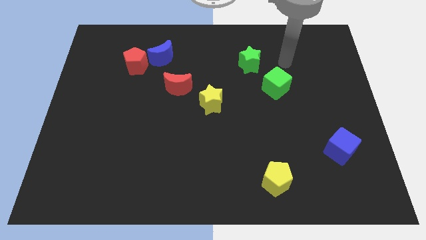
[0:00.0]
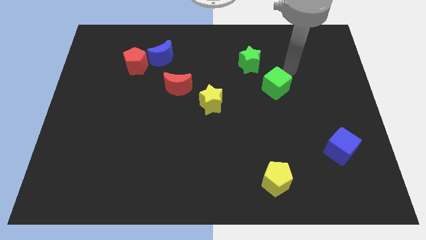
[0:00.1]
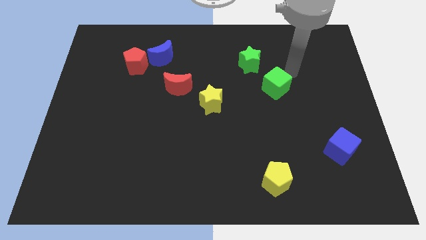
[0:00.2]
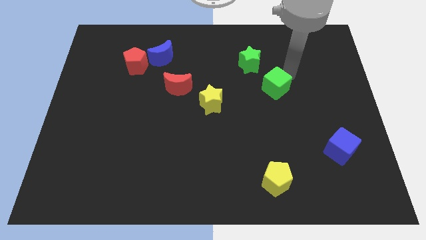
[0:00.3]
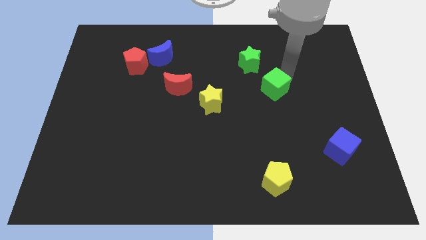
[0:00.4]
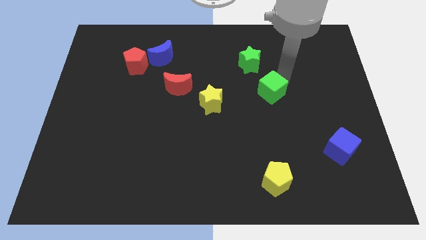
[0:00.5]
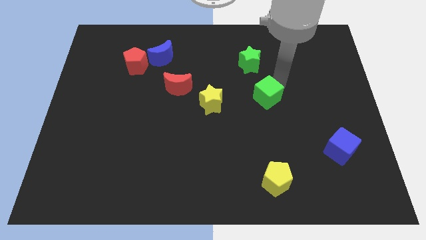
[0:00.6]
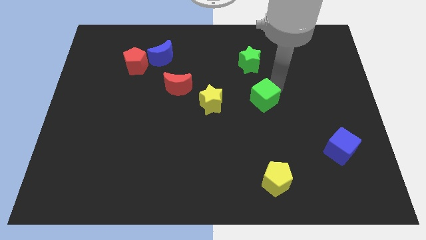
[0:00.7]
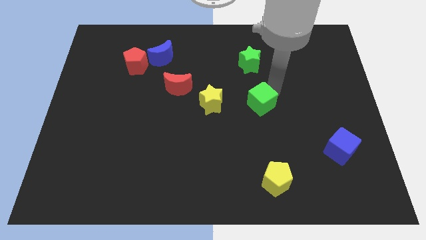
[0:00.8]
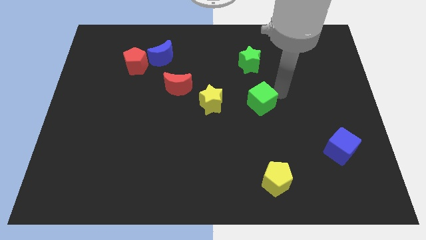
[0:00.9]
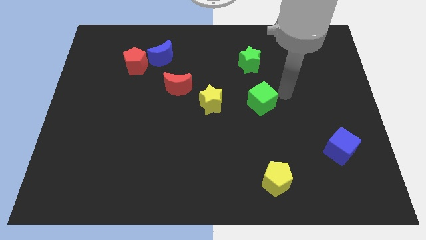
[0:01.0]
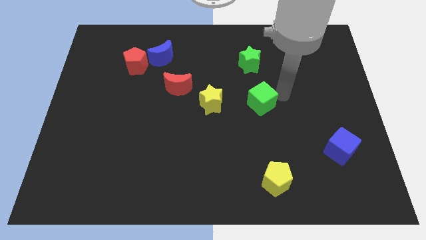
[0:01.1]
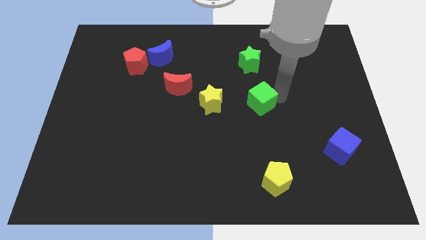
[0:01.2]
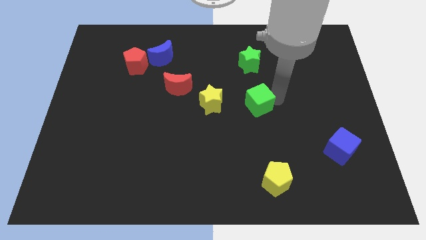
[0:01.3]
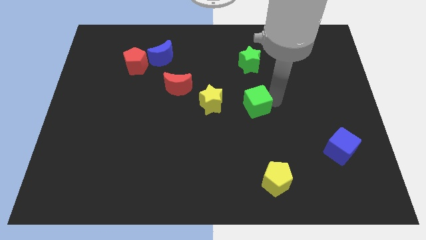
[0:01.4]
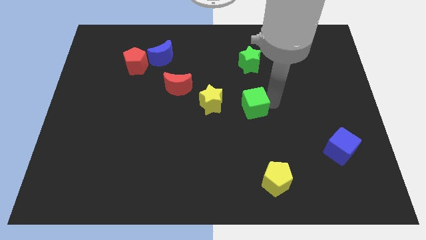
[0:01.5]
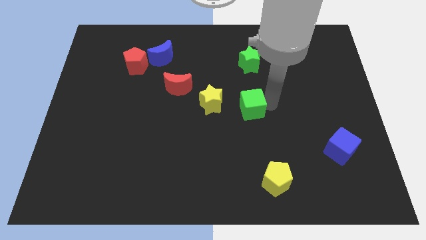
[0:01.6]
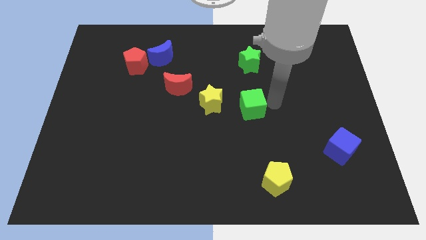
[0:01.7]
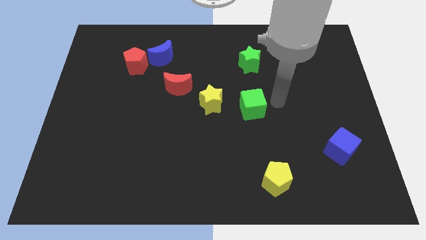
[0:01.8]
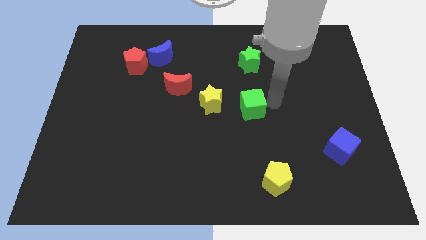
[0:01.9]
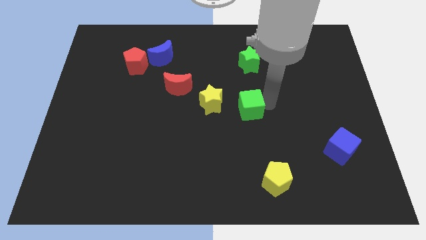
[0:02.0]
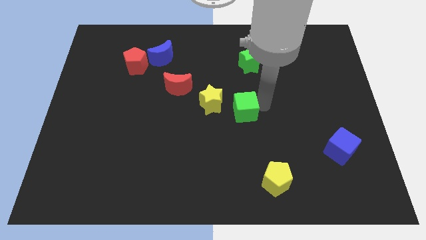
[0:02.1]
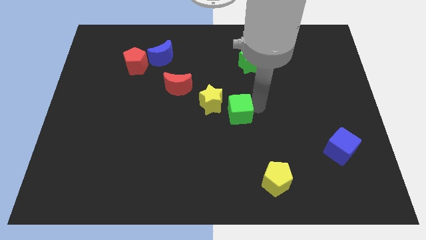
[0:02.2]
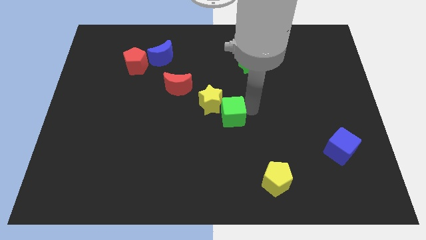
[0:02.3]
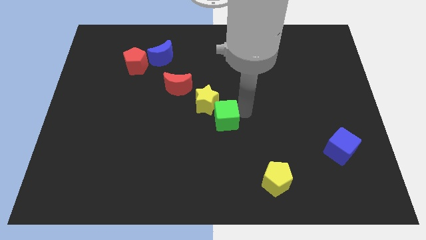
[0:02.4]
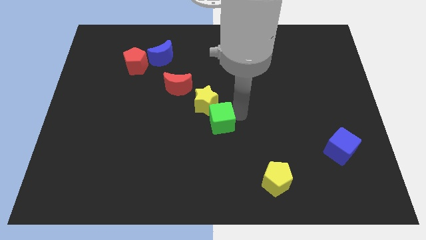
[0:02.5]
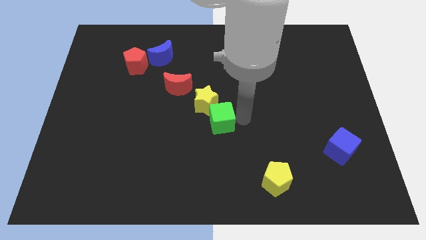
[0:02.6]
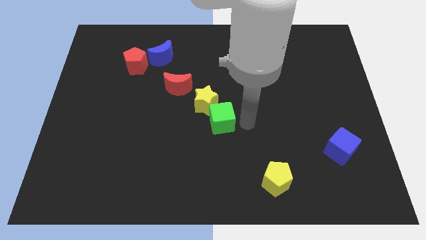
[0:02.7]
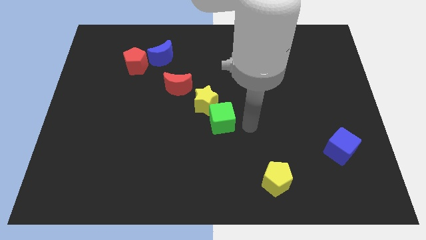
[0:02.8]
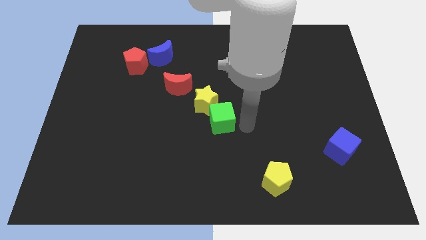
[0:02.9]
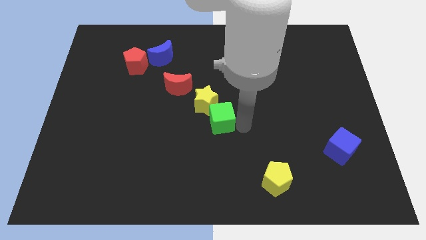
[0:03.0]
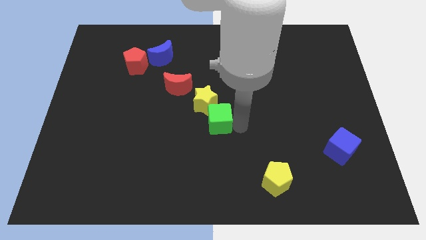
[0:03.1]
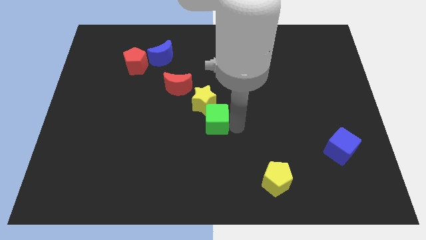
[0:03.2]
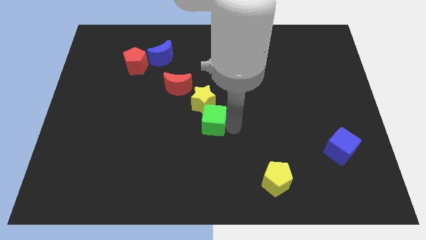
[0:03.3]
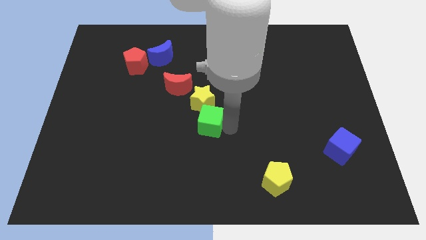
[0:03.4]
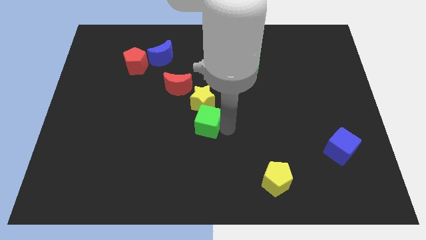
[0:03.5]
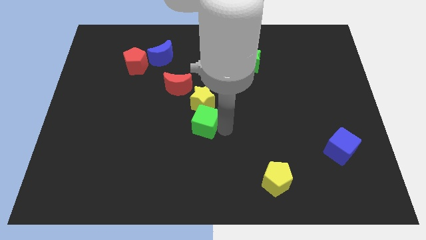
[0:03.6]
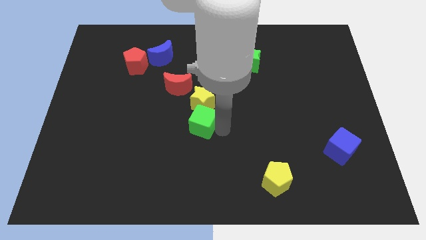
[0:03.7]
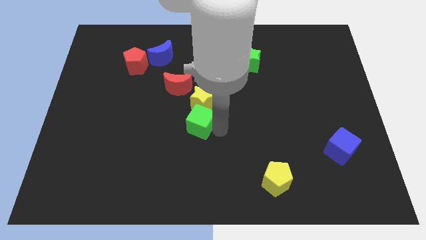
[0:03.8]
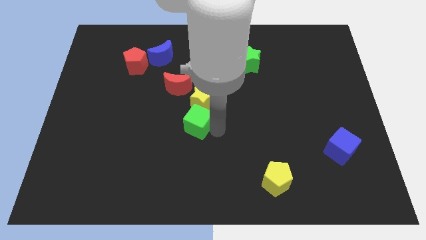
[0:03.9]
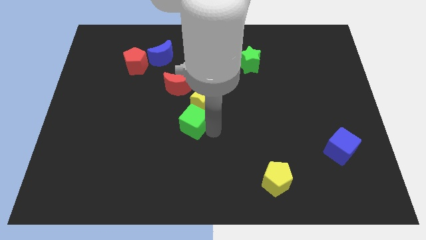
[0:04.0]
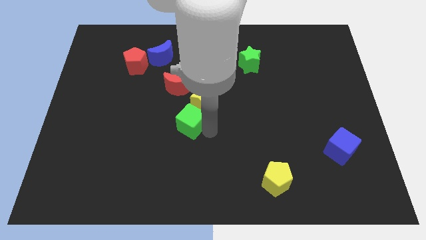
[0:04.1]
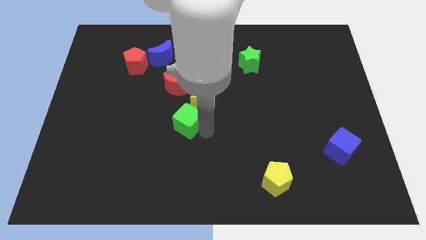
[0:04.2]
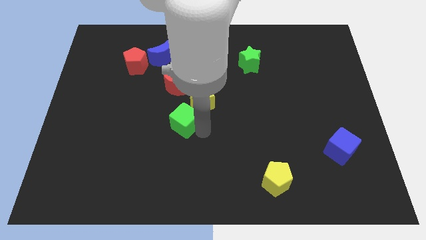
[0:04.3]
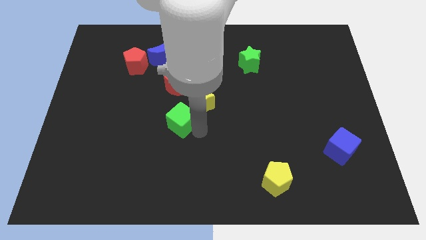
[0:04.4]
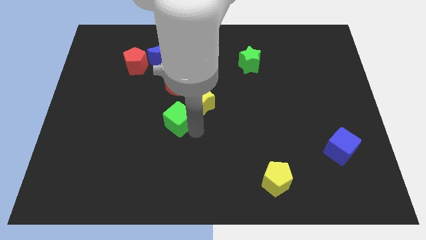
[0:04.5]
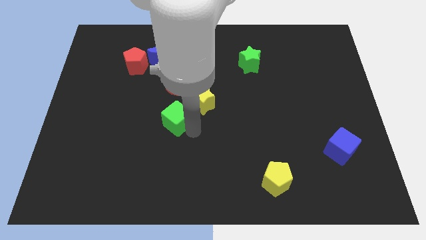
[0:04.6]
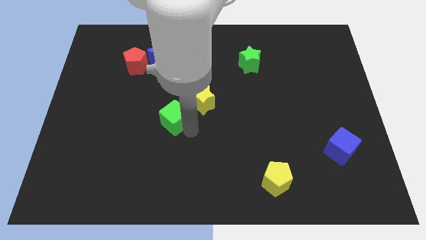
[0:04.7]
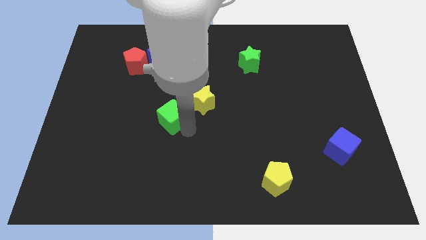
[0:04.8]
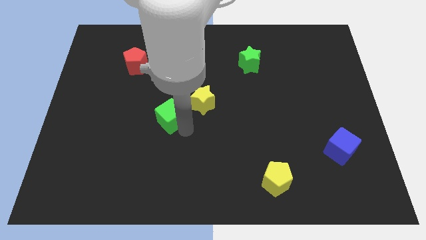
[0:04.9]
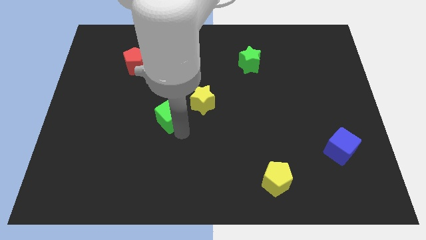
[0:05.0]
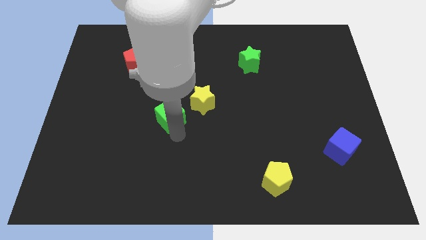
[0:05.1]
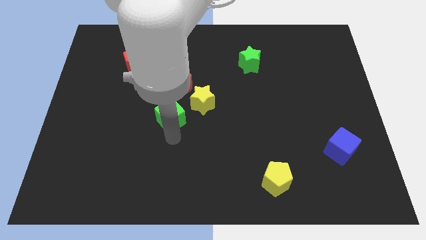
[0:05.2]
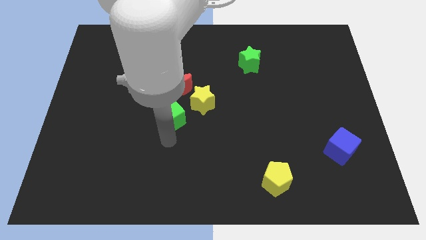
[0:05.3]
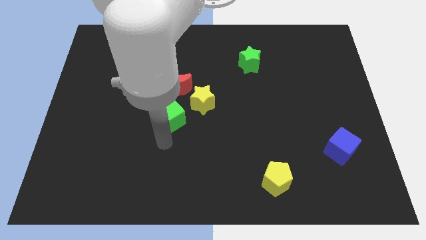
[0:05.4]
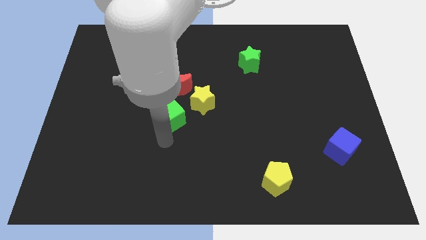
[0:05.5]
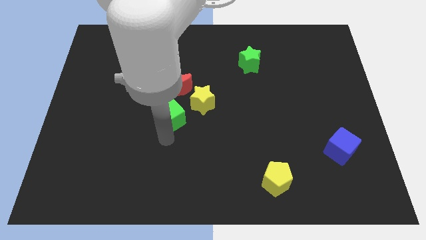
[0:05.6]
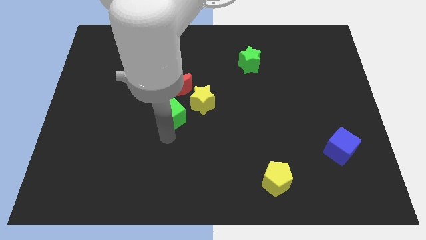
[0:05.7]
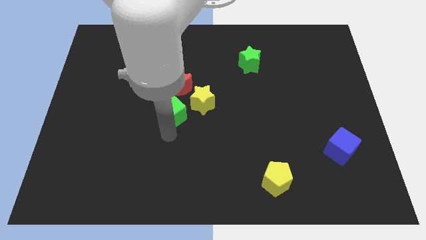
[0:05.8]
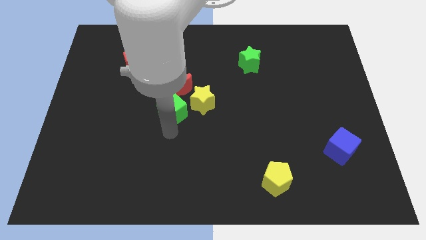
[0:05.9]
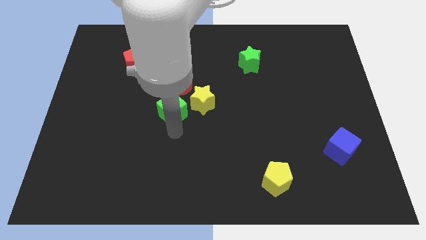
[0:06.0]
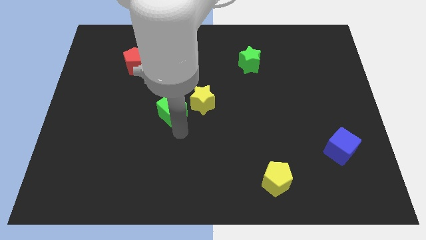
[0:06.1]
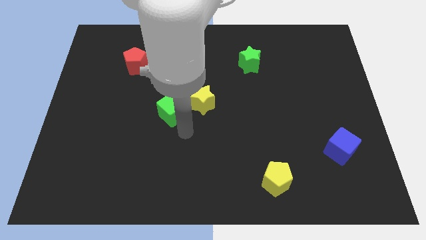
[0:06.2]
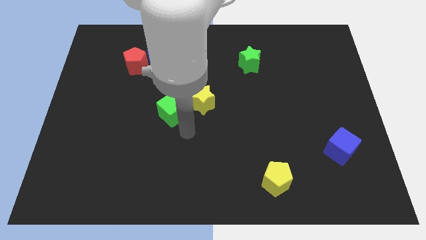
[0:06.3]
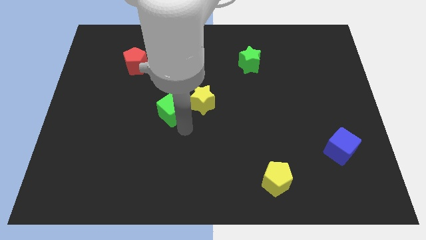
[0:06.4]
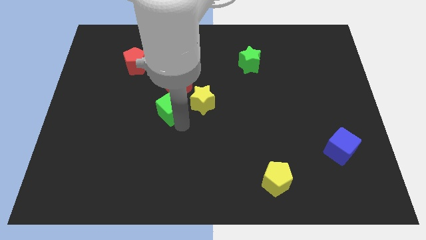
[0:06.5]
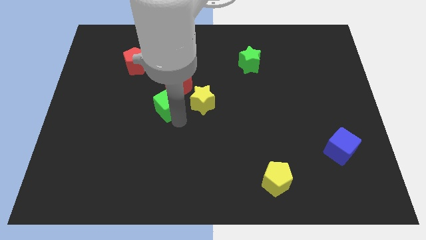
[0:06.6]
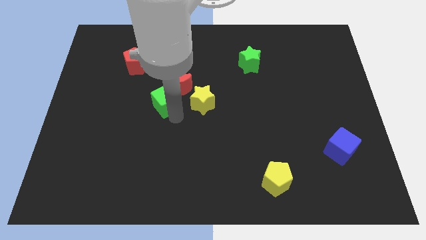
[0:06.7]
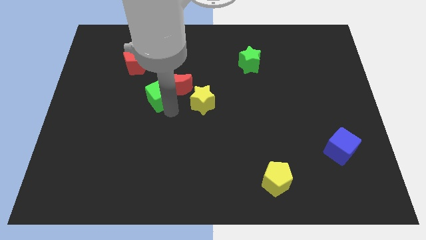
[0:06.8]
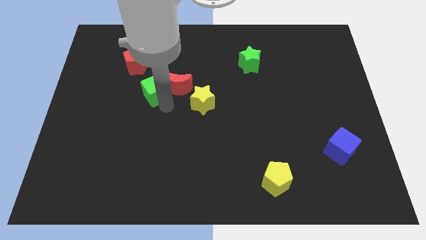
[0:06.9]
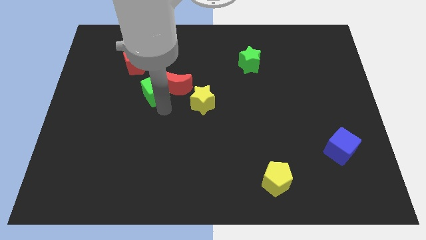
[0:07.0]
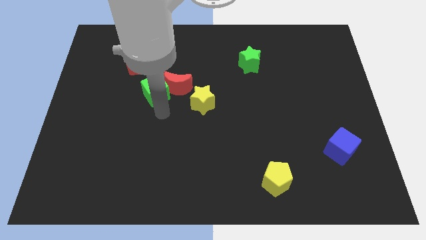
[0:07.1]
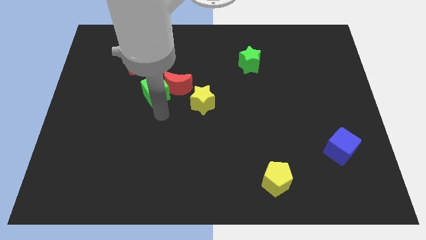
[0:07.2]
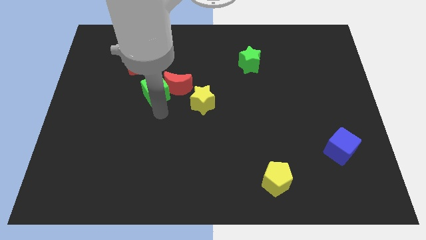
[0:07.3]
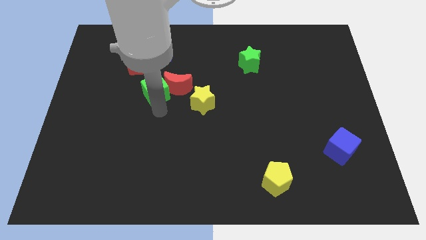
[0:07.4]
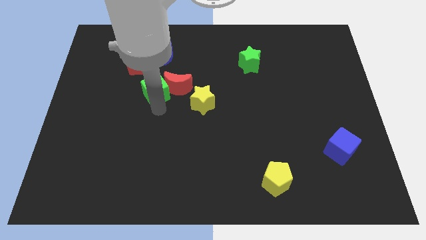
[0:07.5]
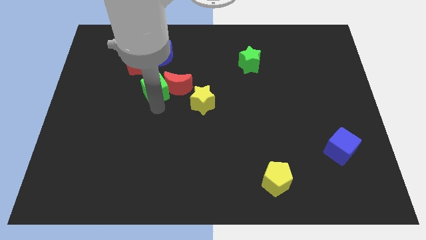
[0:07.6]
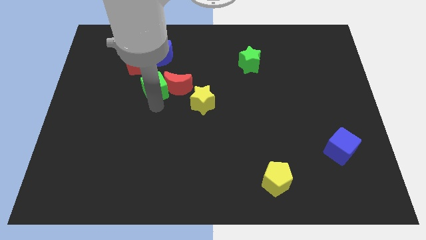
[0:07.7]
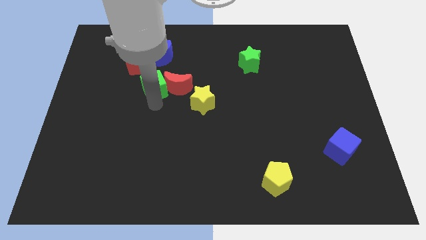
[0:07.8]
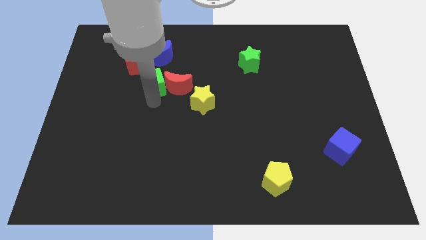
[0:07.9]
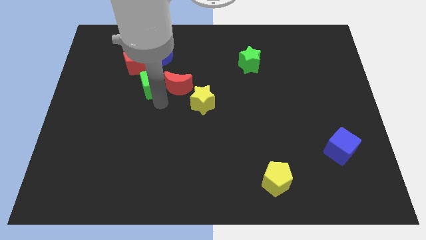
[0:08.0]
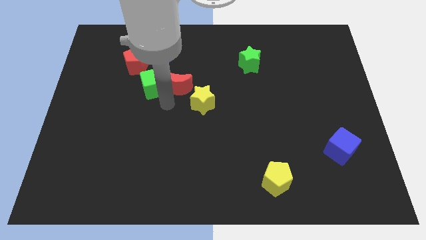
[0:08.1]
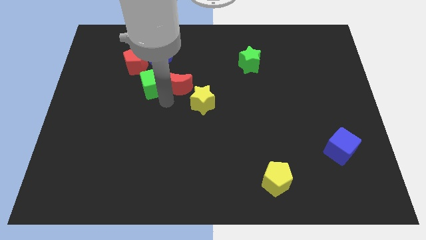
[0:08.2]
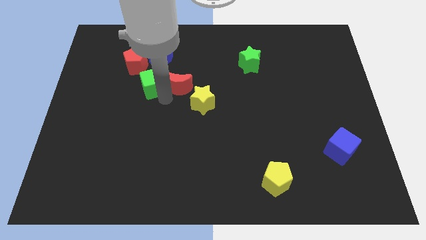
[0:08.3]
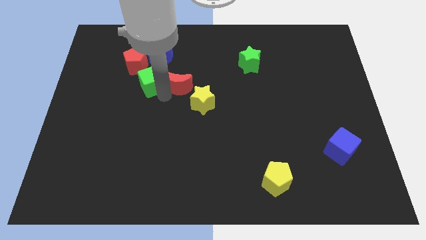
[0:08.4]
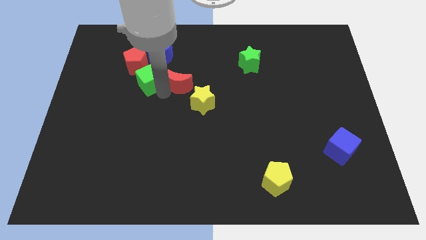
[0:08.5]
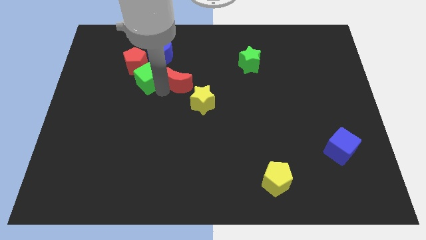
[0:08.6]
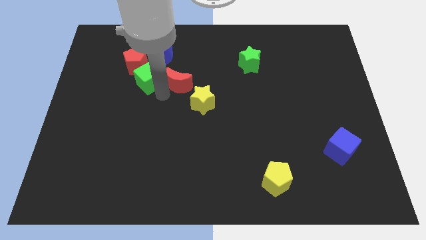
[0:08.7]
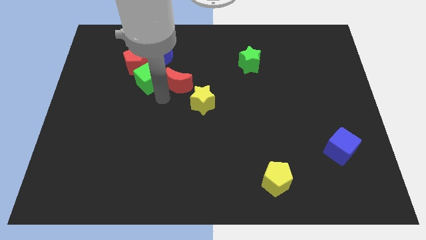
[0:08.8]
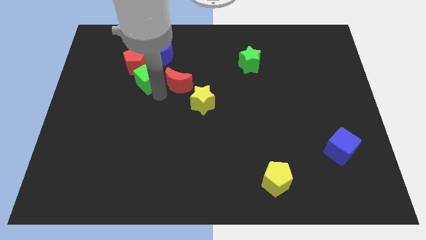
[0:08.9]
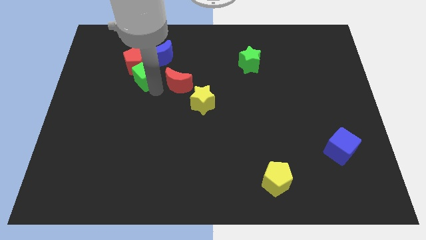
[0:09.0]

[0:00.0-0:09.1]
put the green cube towards the red pentagon
